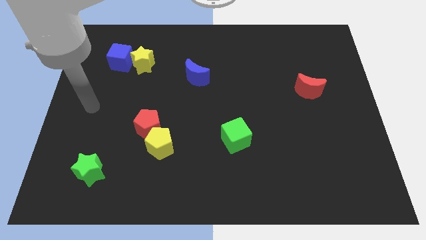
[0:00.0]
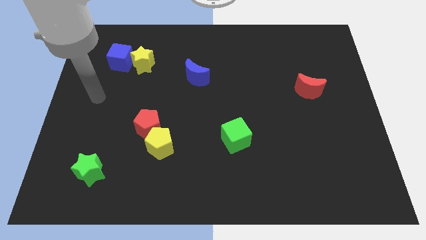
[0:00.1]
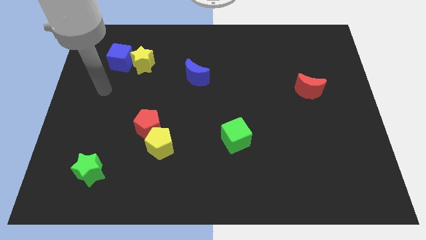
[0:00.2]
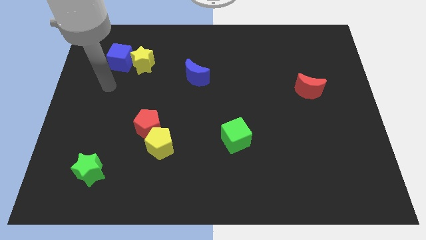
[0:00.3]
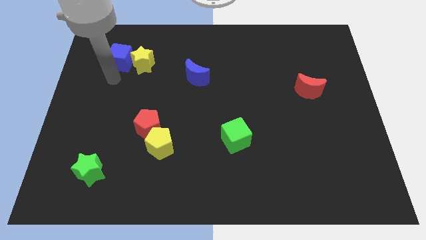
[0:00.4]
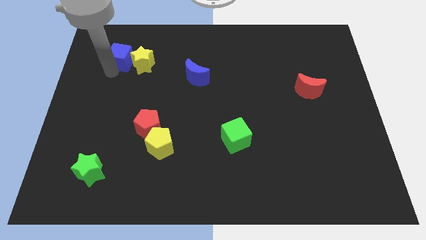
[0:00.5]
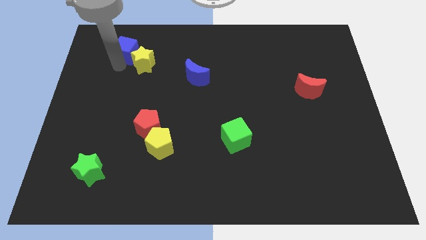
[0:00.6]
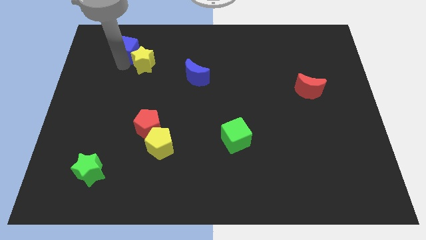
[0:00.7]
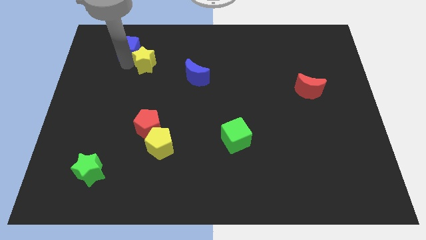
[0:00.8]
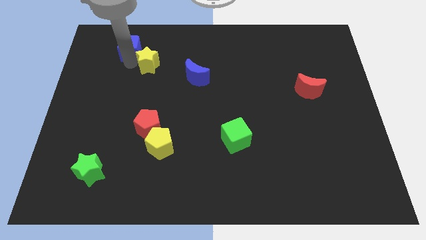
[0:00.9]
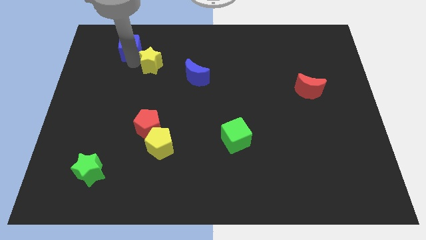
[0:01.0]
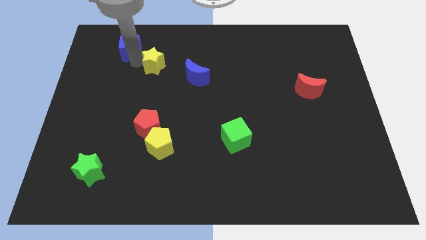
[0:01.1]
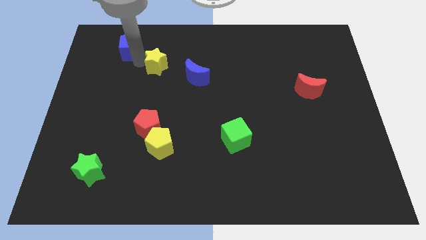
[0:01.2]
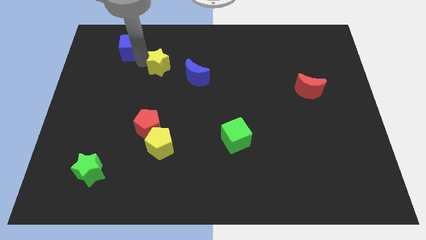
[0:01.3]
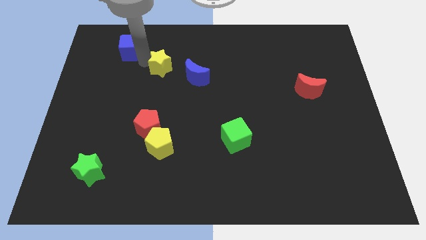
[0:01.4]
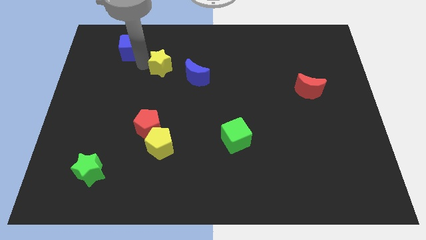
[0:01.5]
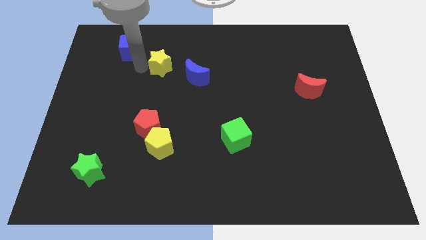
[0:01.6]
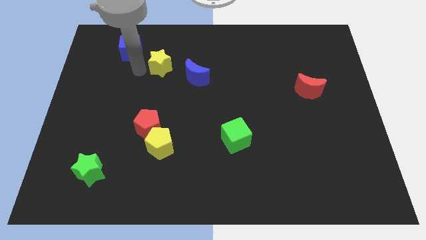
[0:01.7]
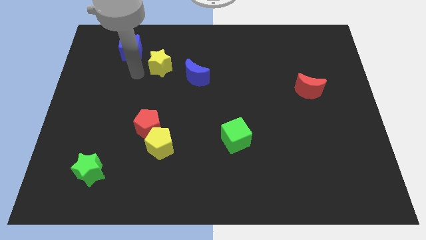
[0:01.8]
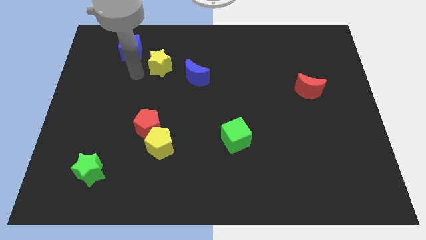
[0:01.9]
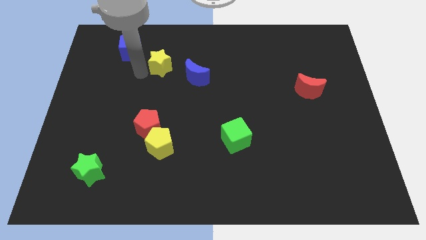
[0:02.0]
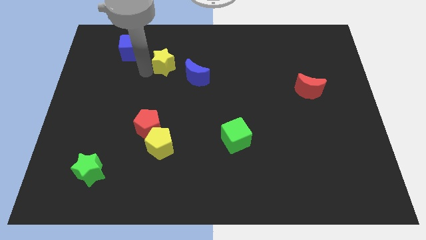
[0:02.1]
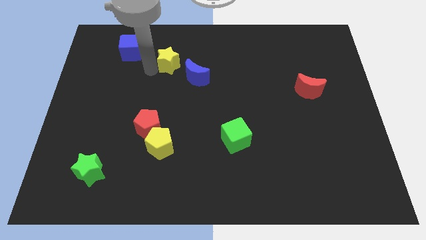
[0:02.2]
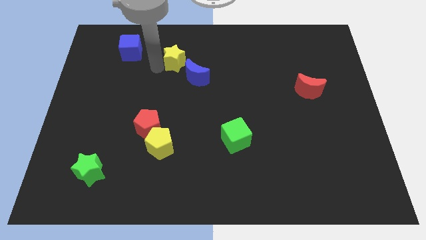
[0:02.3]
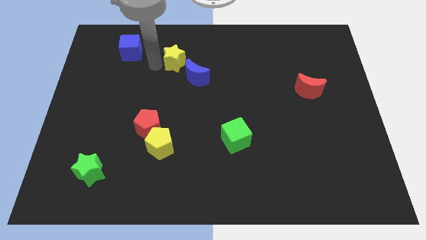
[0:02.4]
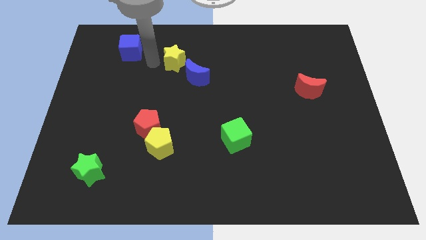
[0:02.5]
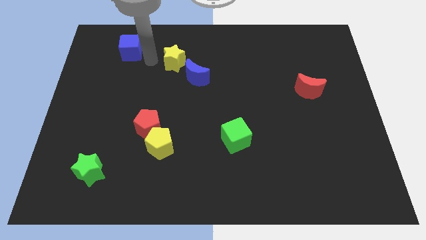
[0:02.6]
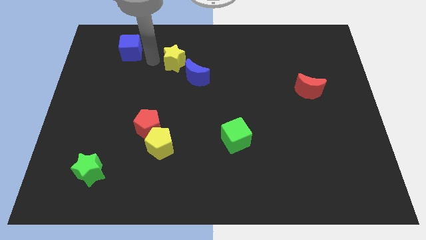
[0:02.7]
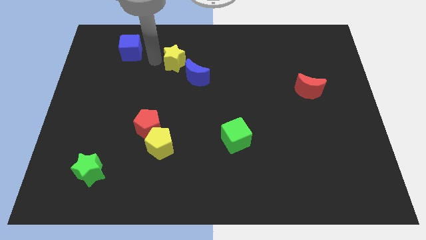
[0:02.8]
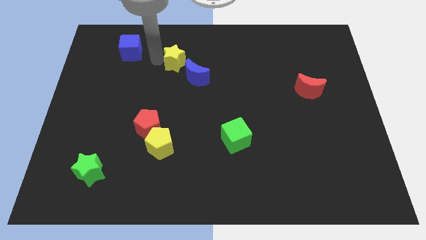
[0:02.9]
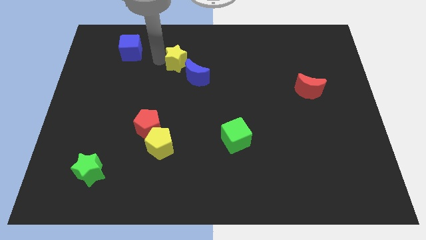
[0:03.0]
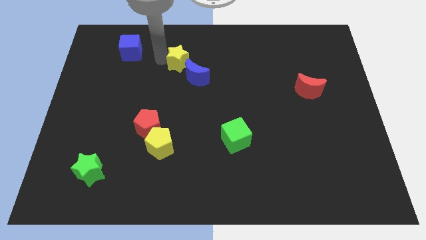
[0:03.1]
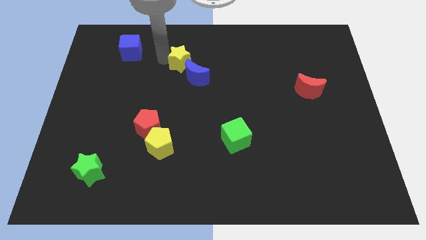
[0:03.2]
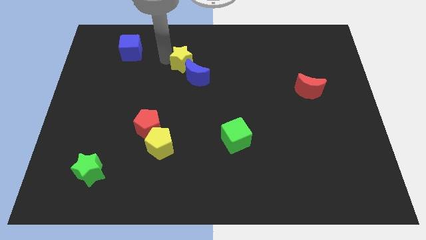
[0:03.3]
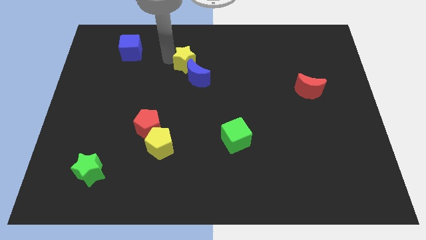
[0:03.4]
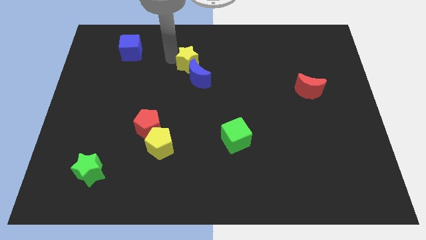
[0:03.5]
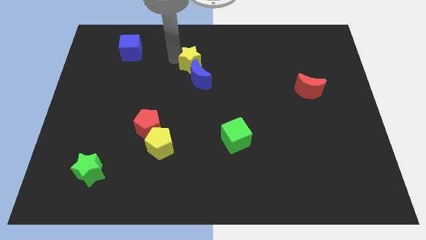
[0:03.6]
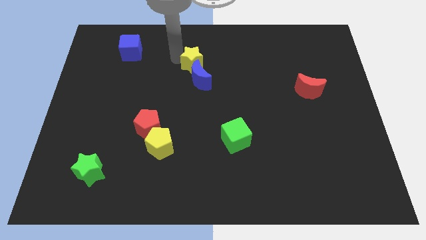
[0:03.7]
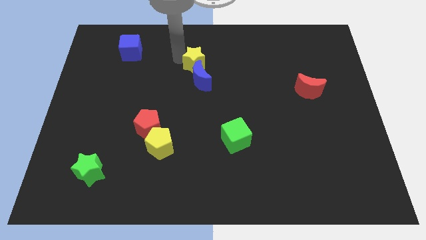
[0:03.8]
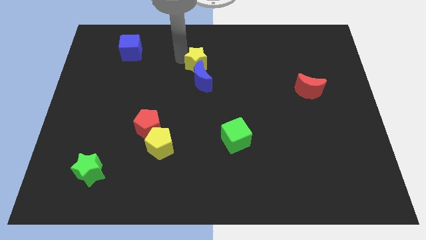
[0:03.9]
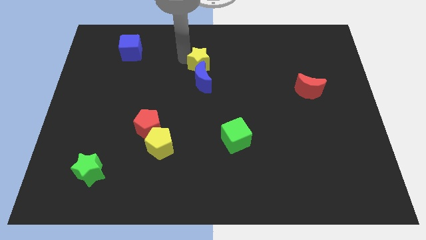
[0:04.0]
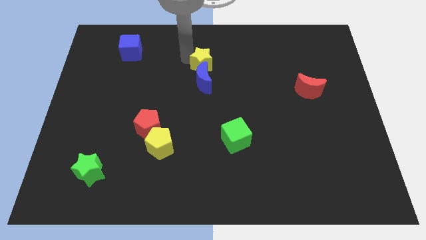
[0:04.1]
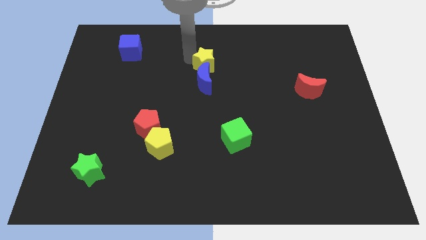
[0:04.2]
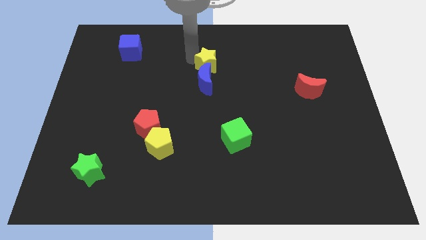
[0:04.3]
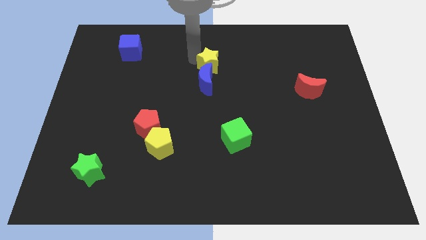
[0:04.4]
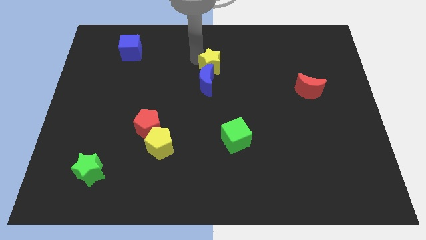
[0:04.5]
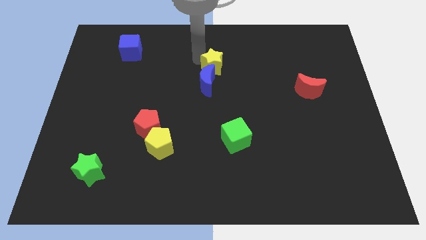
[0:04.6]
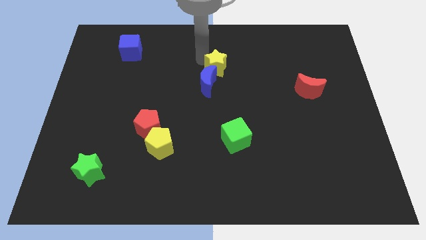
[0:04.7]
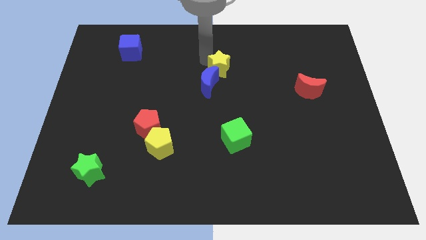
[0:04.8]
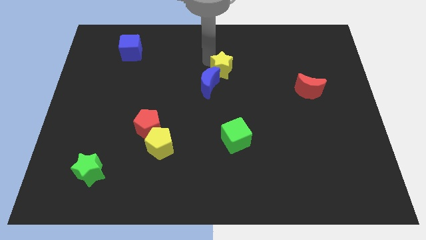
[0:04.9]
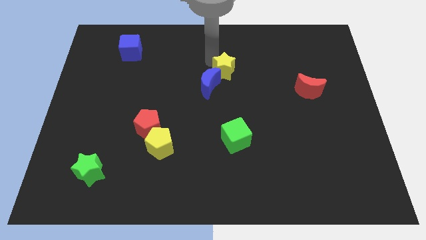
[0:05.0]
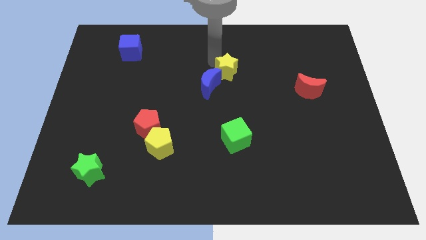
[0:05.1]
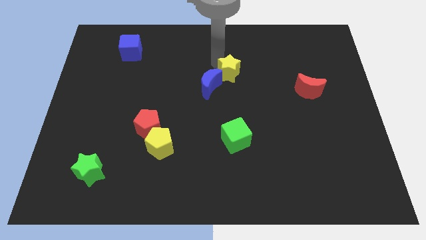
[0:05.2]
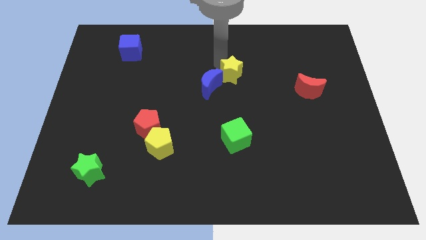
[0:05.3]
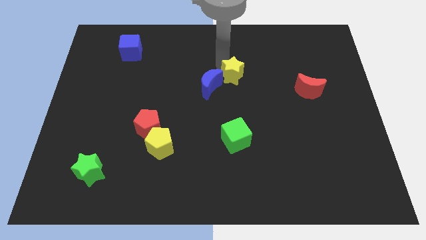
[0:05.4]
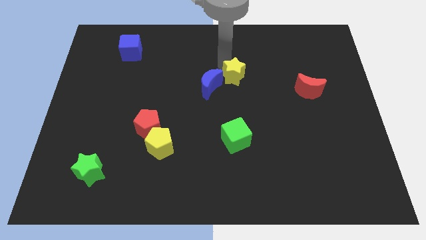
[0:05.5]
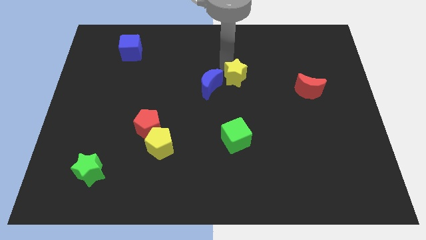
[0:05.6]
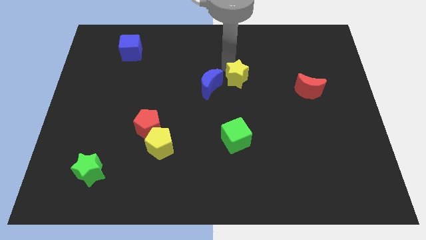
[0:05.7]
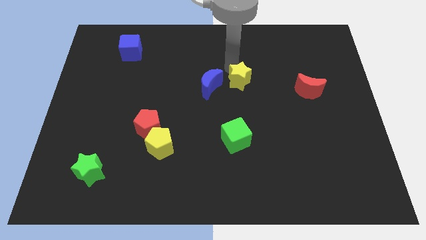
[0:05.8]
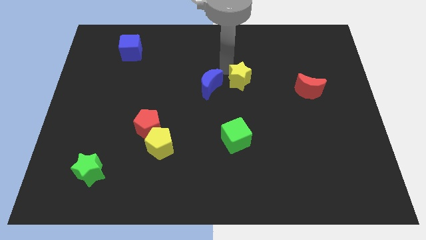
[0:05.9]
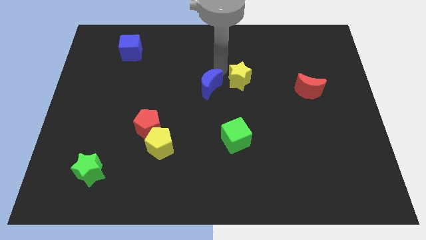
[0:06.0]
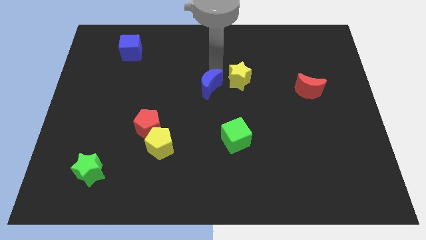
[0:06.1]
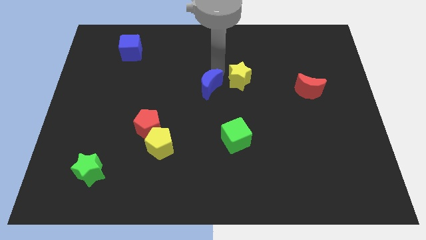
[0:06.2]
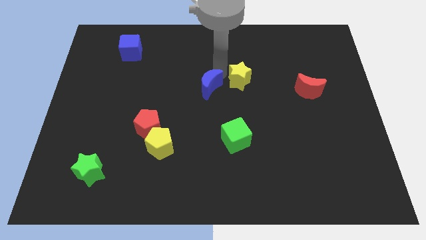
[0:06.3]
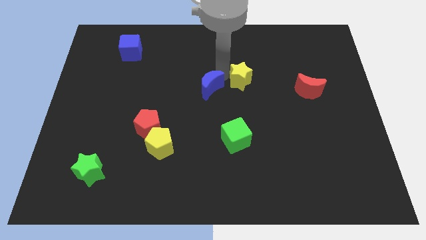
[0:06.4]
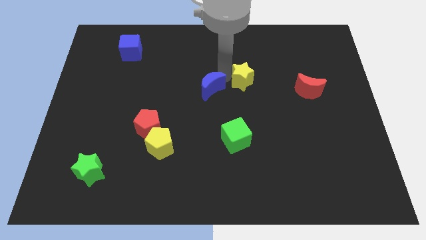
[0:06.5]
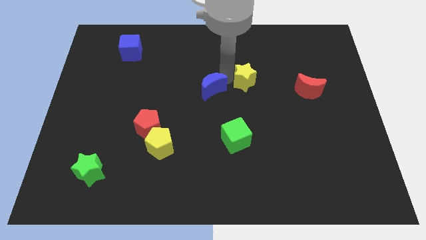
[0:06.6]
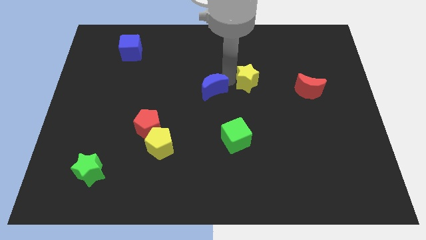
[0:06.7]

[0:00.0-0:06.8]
put the yellow star left of the red moon
